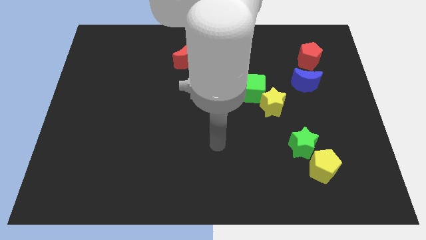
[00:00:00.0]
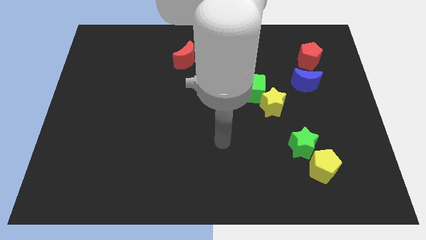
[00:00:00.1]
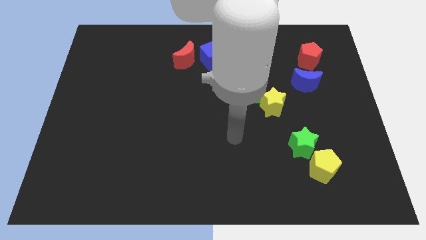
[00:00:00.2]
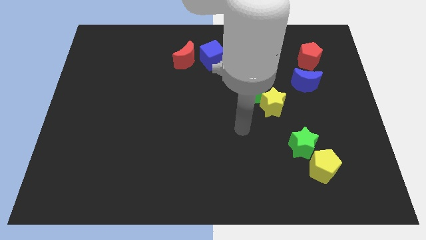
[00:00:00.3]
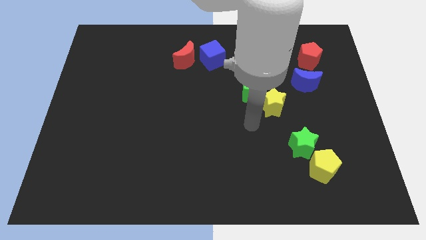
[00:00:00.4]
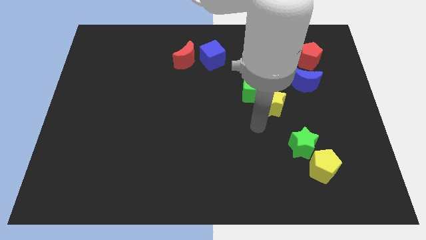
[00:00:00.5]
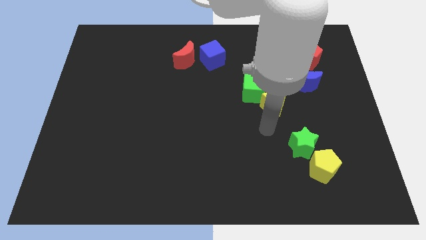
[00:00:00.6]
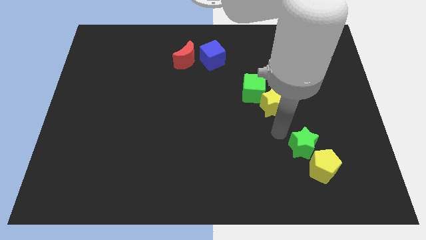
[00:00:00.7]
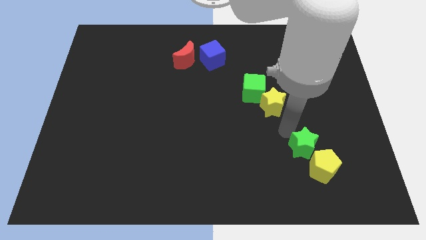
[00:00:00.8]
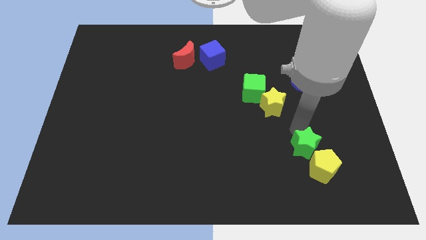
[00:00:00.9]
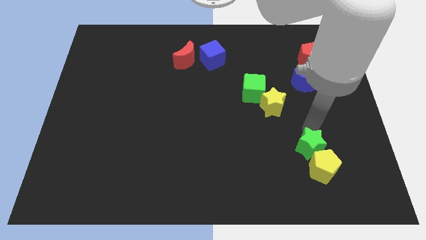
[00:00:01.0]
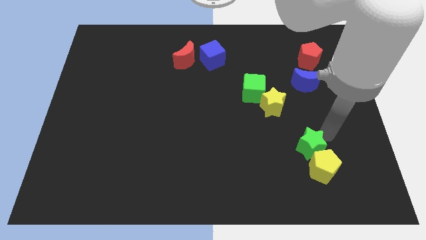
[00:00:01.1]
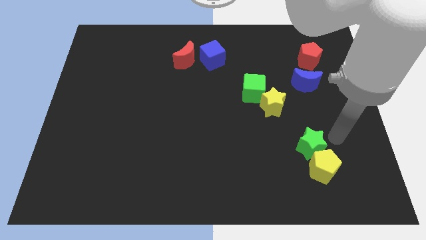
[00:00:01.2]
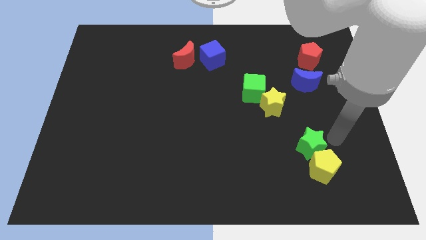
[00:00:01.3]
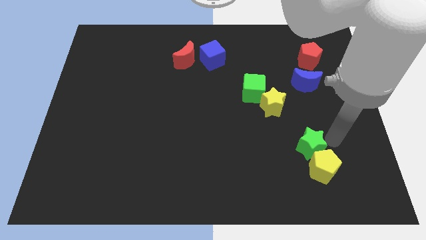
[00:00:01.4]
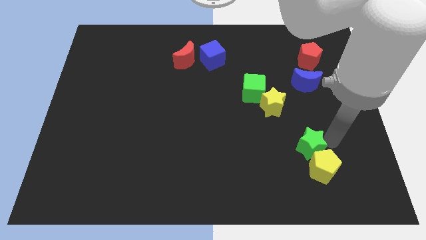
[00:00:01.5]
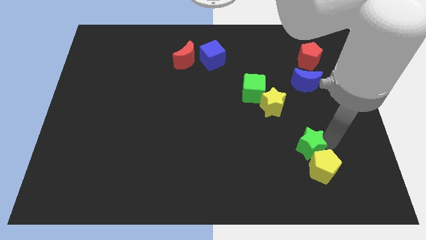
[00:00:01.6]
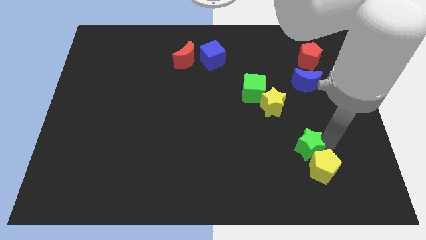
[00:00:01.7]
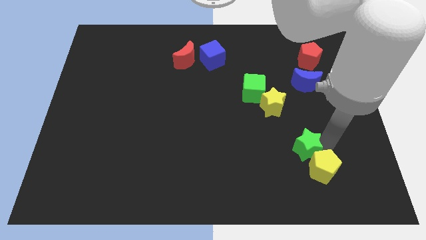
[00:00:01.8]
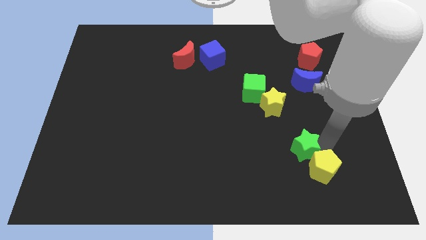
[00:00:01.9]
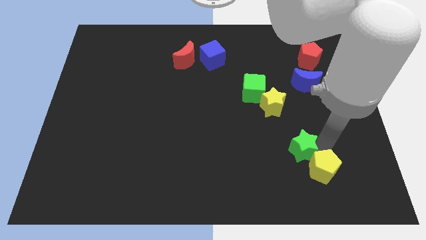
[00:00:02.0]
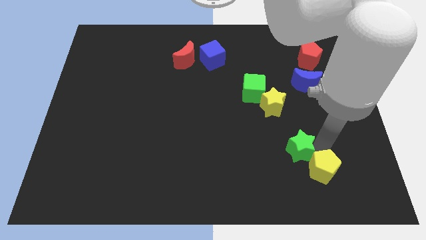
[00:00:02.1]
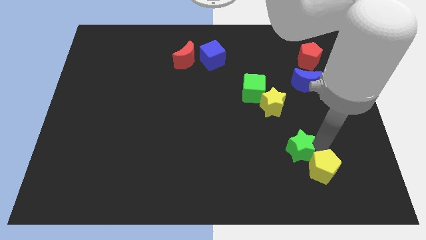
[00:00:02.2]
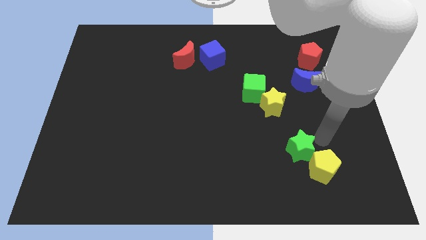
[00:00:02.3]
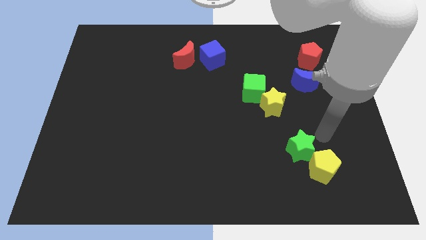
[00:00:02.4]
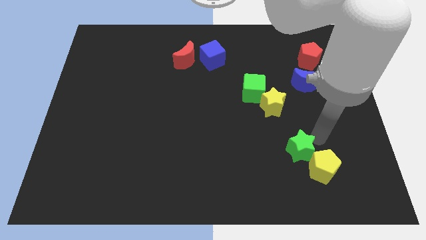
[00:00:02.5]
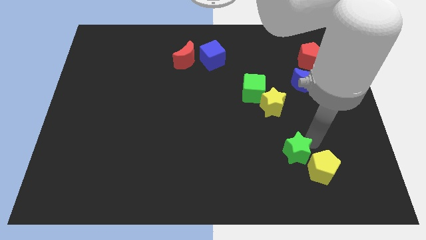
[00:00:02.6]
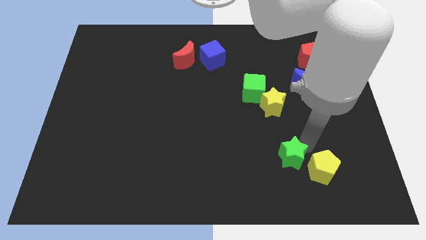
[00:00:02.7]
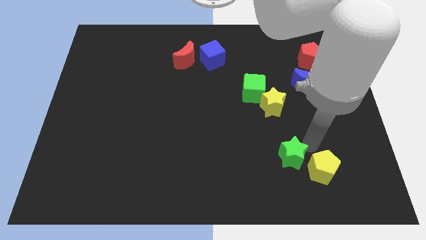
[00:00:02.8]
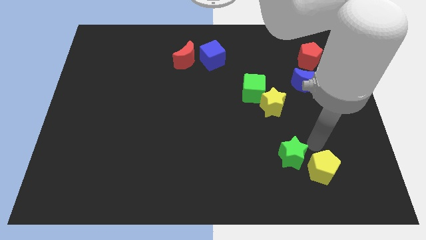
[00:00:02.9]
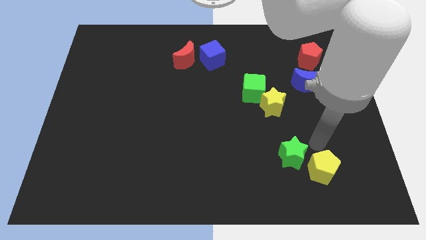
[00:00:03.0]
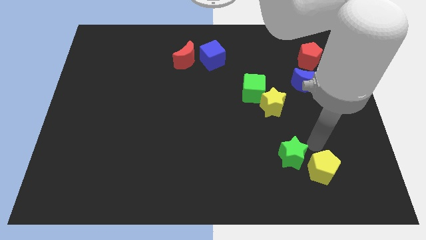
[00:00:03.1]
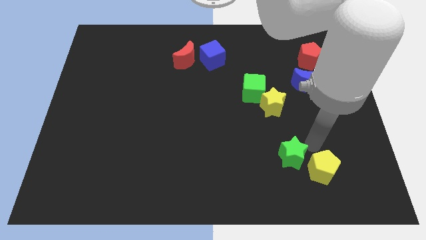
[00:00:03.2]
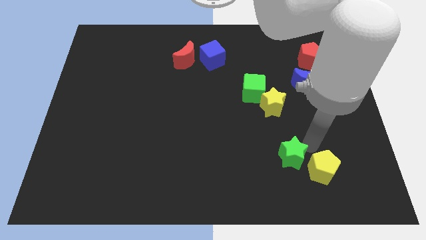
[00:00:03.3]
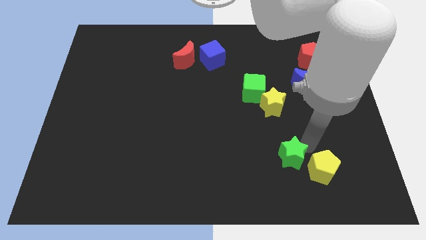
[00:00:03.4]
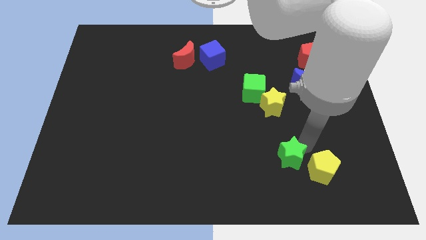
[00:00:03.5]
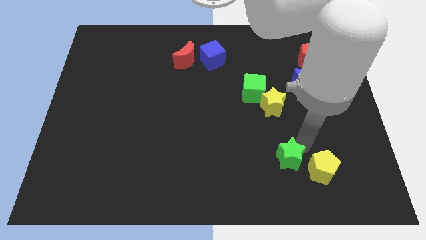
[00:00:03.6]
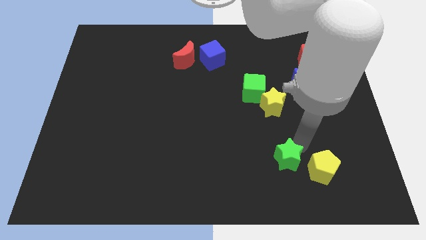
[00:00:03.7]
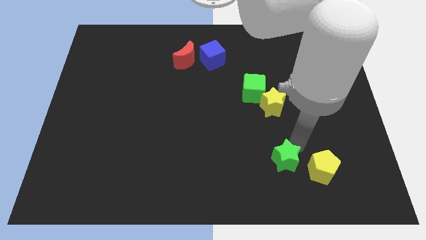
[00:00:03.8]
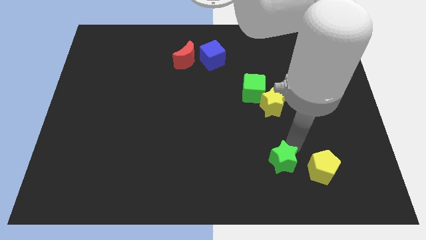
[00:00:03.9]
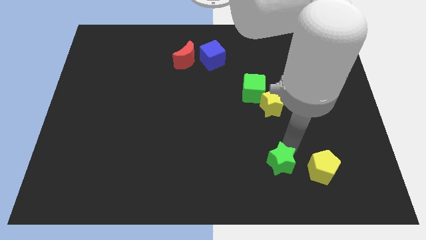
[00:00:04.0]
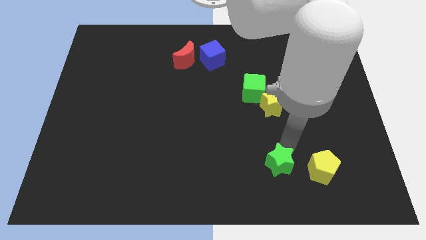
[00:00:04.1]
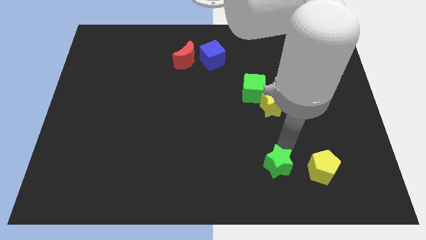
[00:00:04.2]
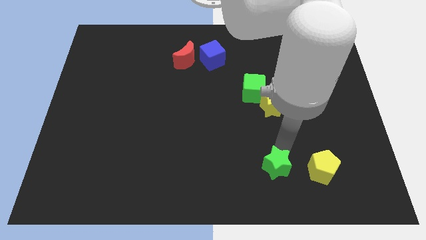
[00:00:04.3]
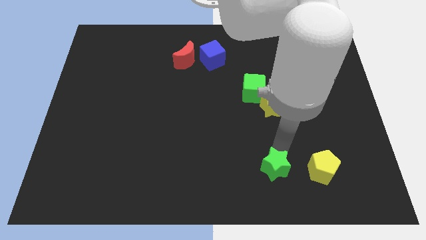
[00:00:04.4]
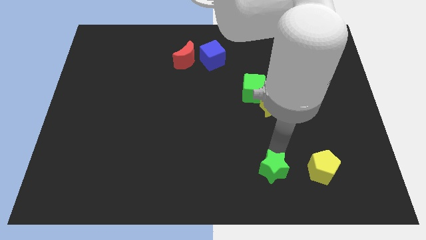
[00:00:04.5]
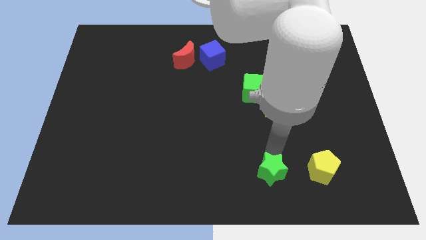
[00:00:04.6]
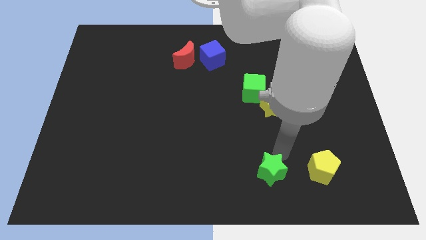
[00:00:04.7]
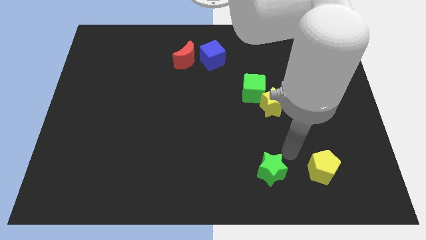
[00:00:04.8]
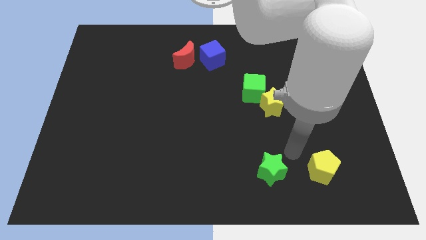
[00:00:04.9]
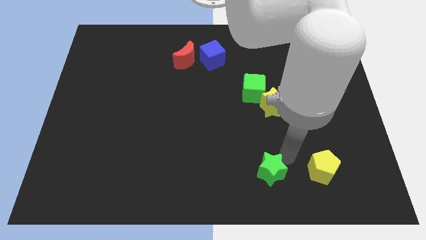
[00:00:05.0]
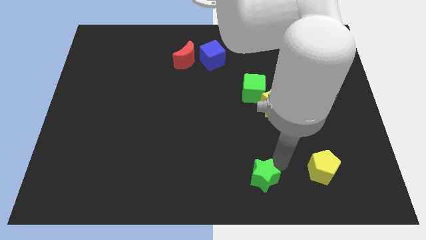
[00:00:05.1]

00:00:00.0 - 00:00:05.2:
slide the green star to the bottom

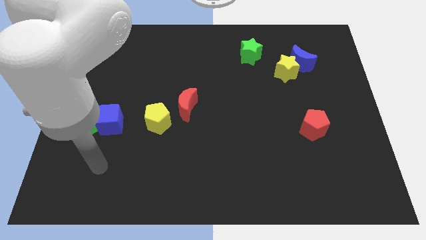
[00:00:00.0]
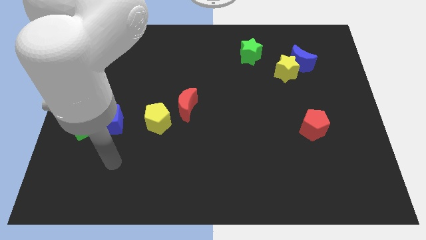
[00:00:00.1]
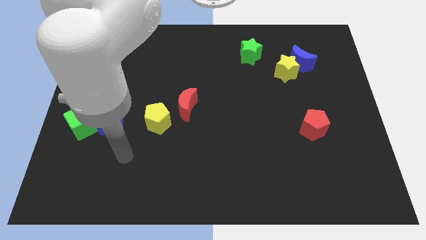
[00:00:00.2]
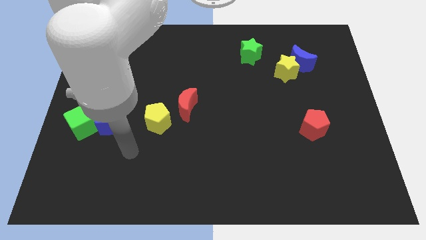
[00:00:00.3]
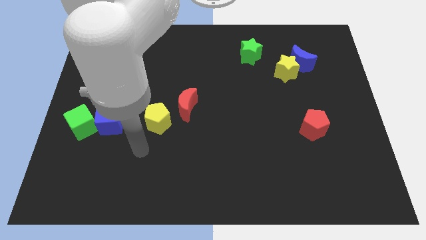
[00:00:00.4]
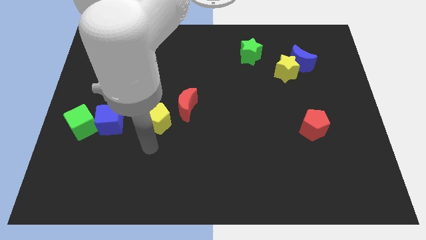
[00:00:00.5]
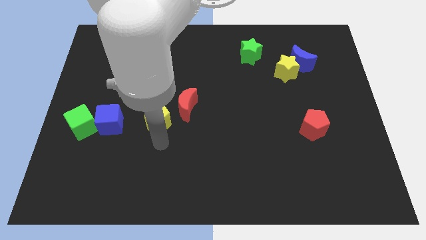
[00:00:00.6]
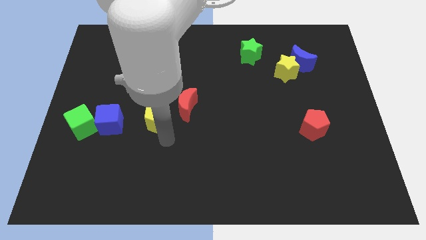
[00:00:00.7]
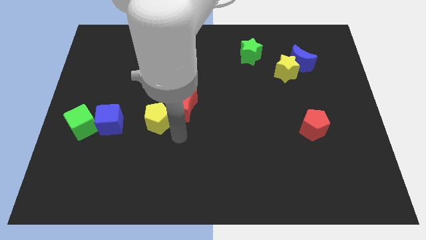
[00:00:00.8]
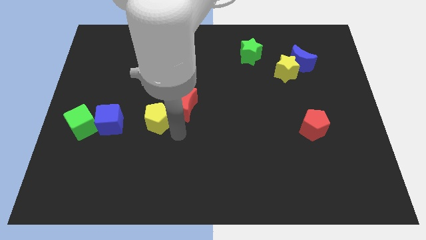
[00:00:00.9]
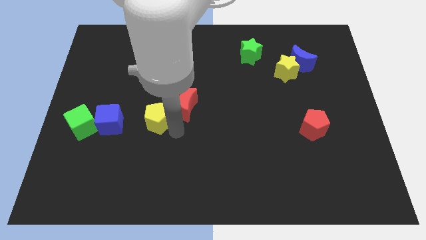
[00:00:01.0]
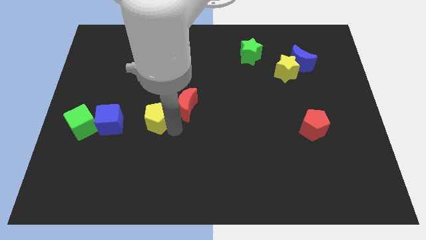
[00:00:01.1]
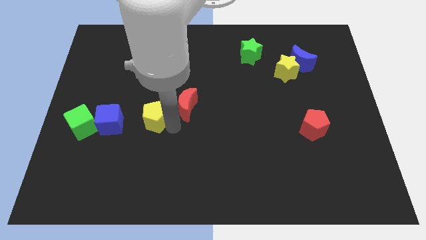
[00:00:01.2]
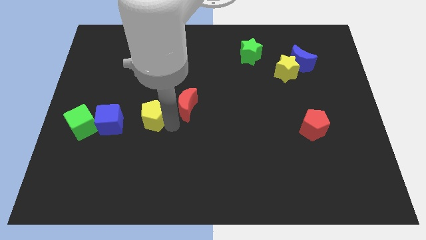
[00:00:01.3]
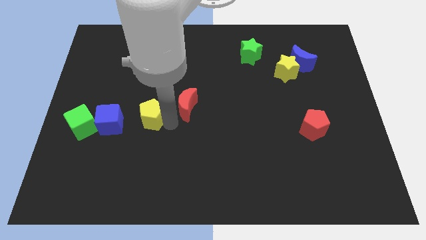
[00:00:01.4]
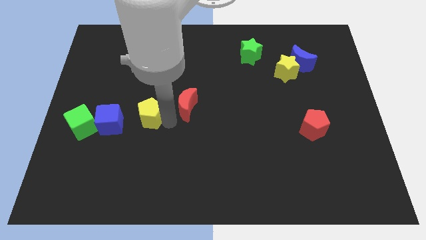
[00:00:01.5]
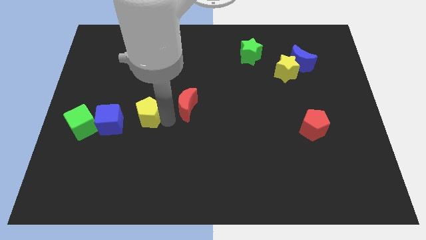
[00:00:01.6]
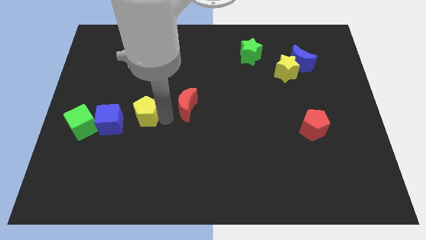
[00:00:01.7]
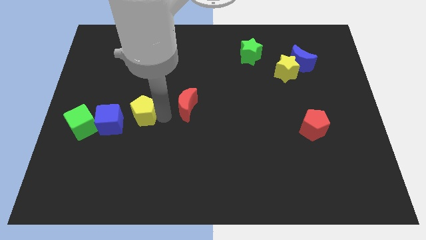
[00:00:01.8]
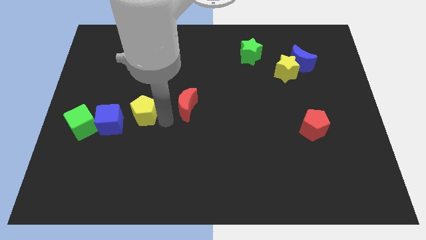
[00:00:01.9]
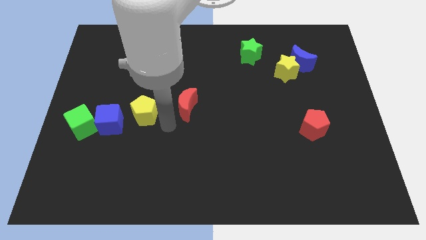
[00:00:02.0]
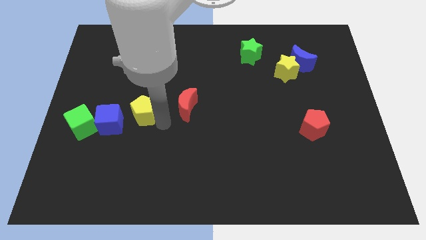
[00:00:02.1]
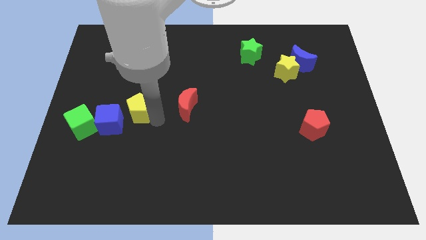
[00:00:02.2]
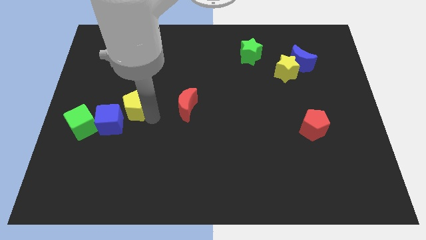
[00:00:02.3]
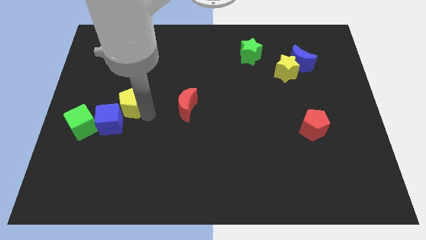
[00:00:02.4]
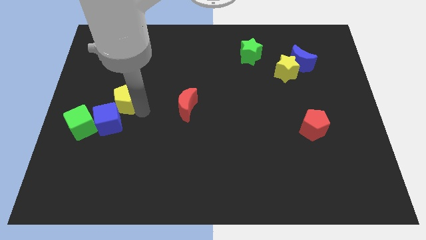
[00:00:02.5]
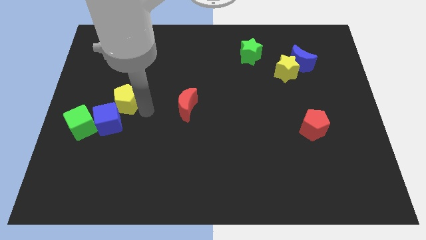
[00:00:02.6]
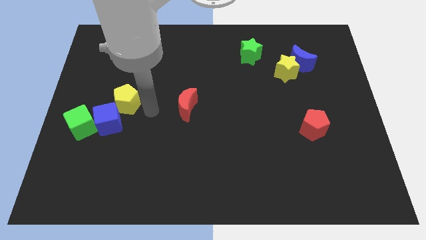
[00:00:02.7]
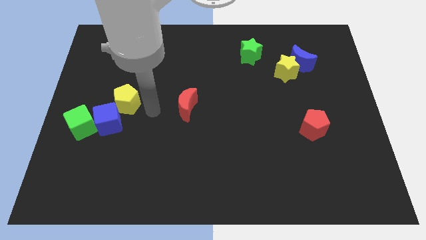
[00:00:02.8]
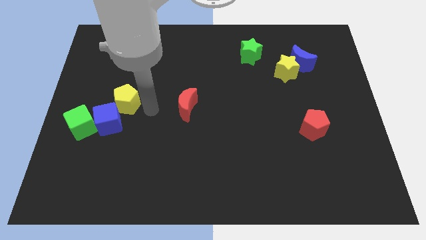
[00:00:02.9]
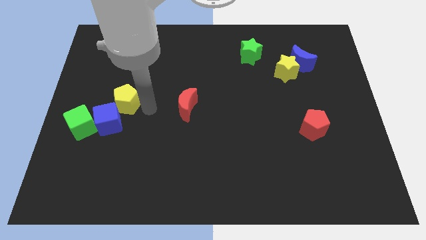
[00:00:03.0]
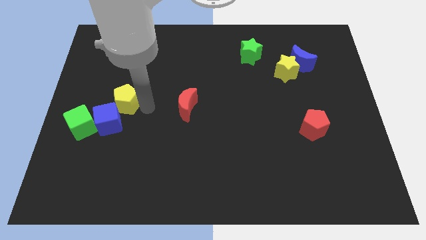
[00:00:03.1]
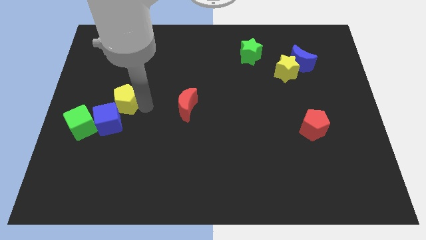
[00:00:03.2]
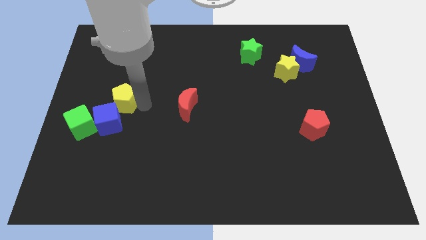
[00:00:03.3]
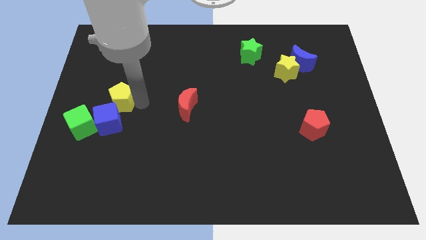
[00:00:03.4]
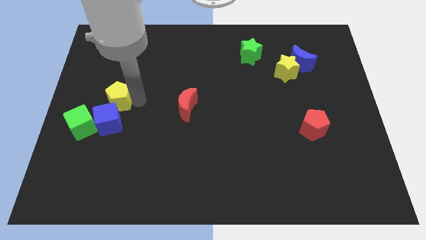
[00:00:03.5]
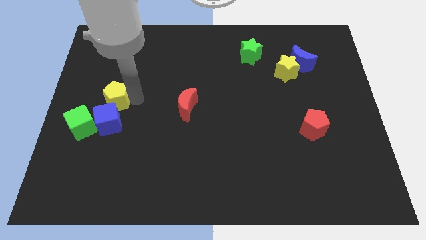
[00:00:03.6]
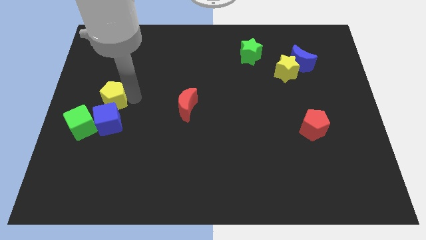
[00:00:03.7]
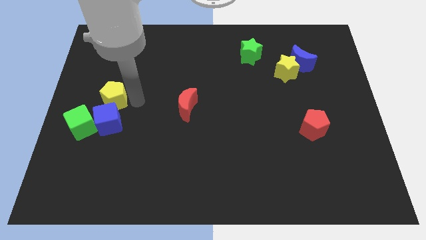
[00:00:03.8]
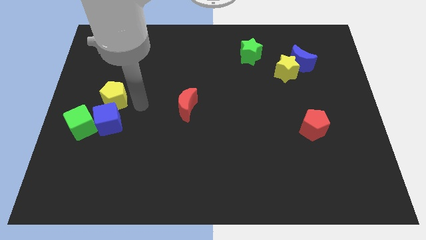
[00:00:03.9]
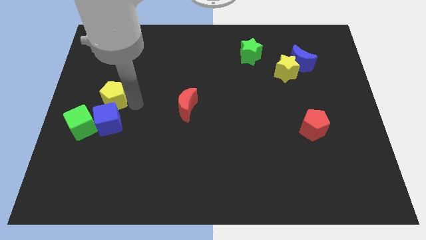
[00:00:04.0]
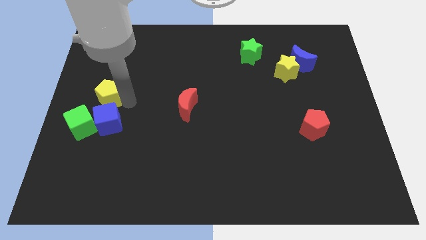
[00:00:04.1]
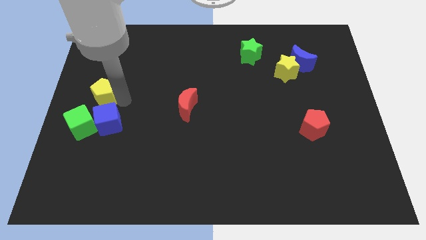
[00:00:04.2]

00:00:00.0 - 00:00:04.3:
move the yellow pentagon to the left side
